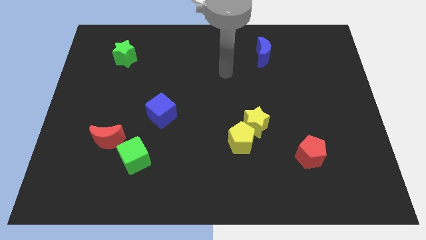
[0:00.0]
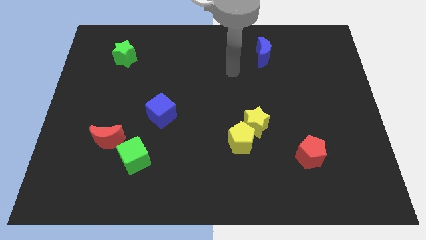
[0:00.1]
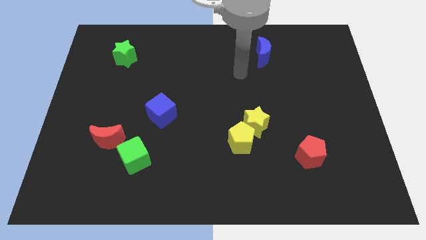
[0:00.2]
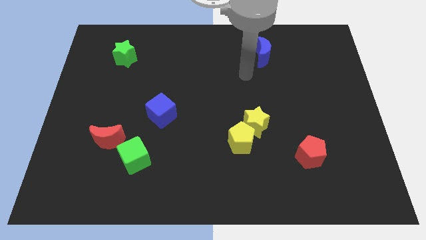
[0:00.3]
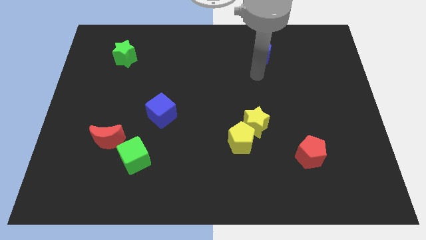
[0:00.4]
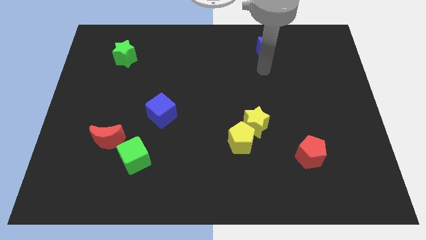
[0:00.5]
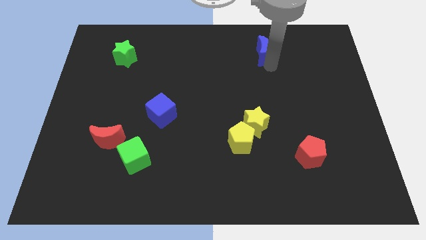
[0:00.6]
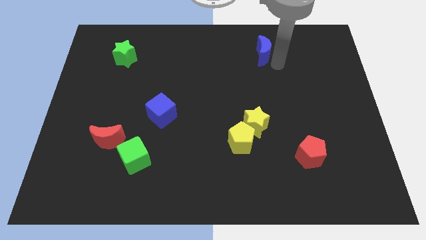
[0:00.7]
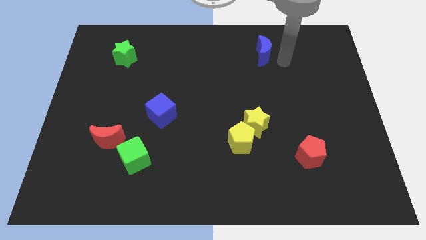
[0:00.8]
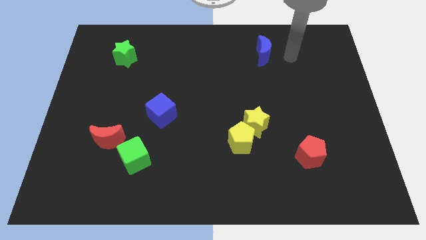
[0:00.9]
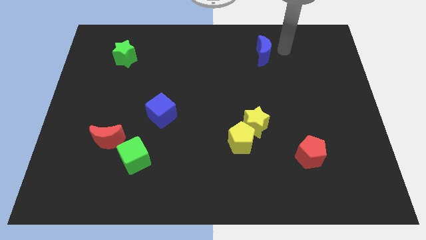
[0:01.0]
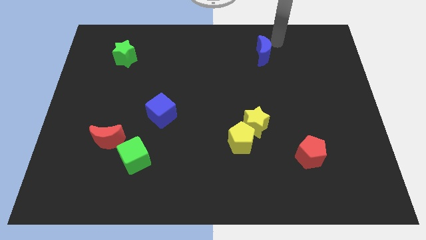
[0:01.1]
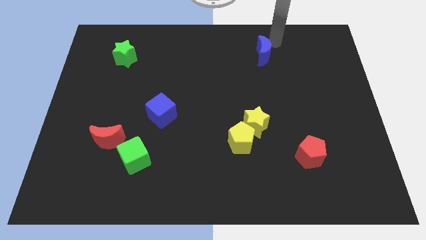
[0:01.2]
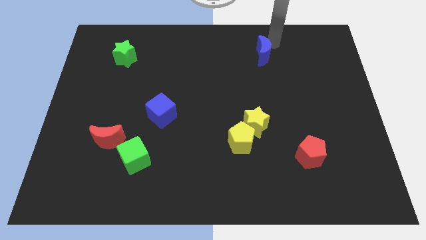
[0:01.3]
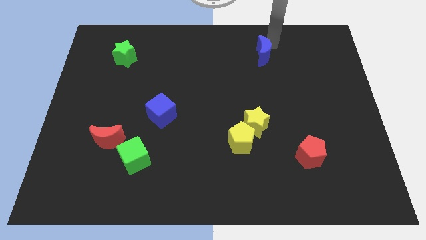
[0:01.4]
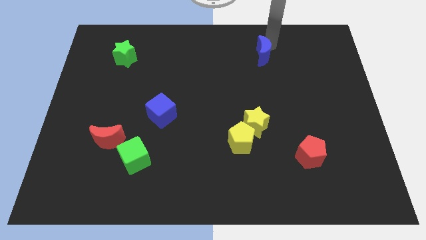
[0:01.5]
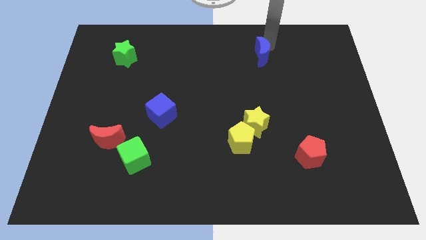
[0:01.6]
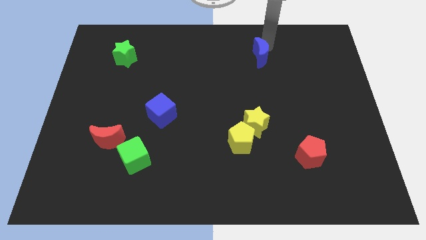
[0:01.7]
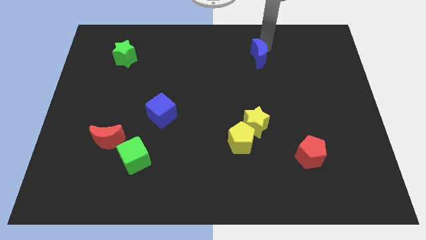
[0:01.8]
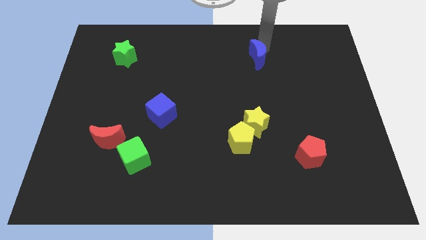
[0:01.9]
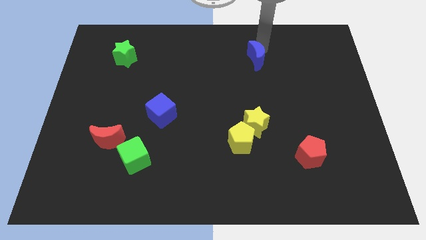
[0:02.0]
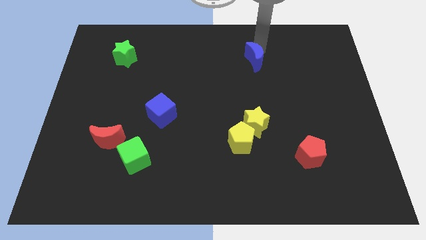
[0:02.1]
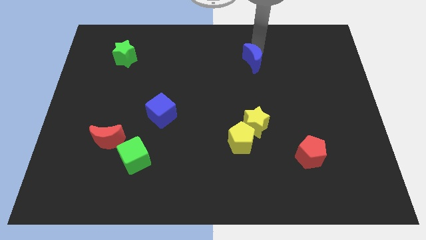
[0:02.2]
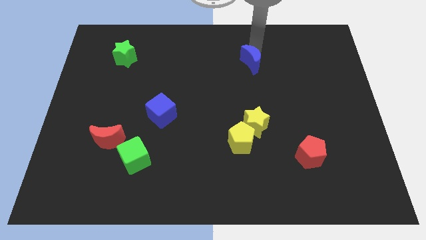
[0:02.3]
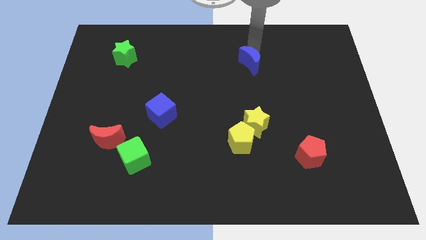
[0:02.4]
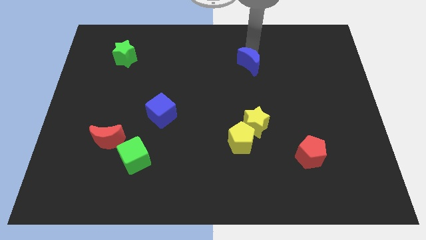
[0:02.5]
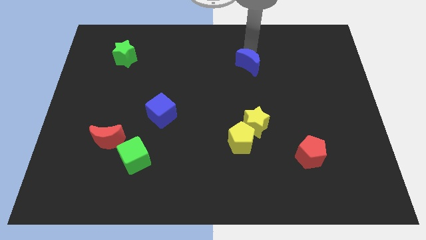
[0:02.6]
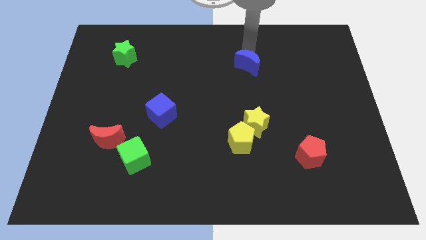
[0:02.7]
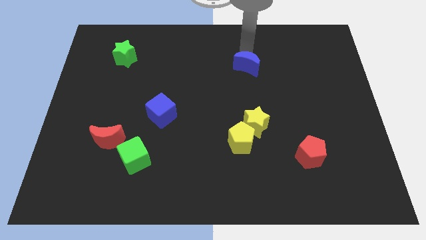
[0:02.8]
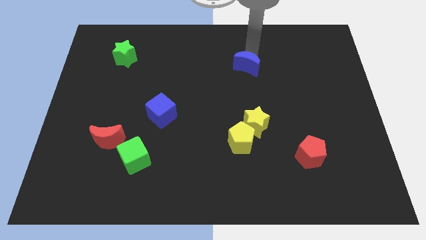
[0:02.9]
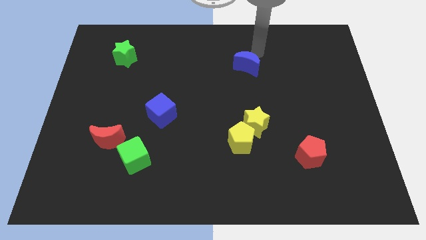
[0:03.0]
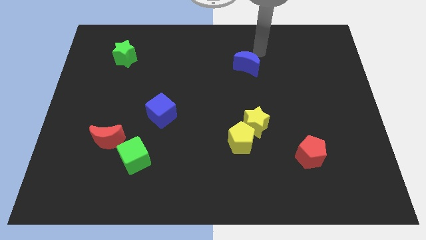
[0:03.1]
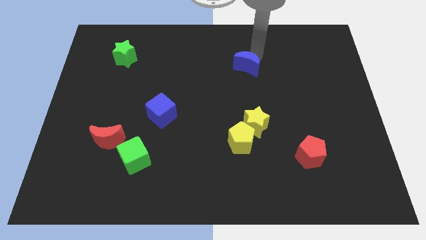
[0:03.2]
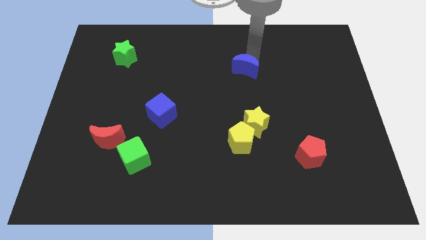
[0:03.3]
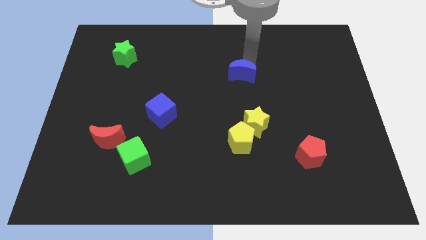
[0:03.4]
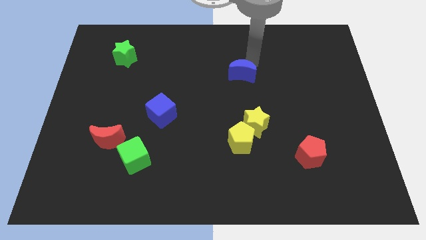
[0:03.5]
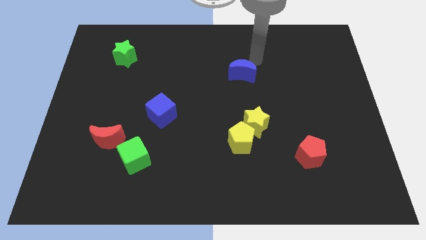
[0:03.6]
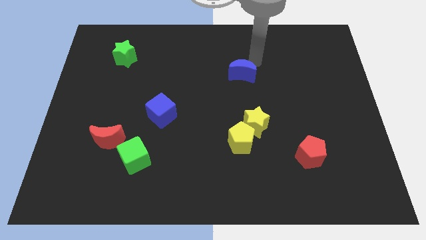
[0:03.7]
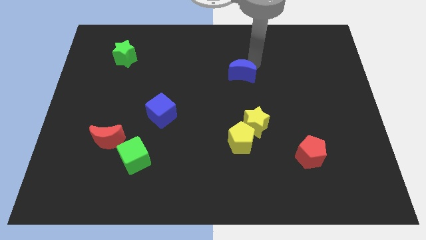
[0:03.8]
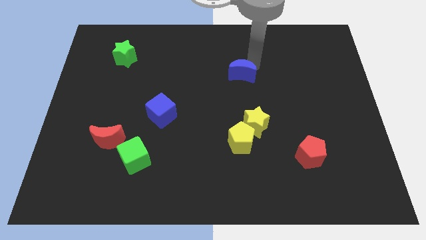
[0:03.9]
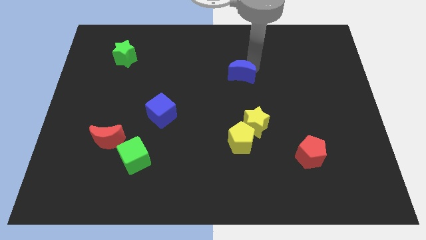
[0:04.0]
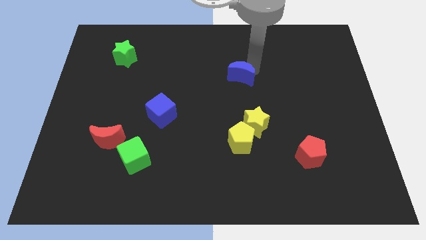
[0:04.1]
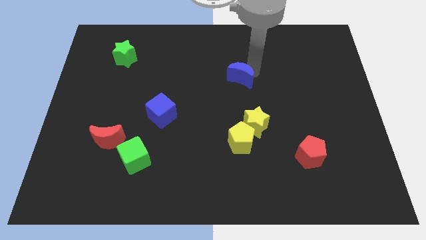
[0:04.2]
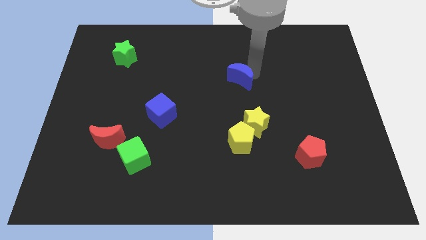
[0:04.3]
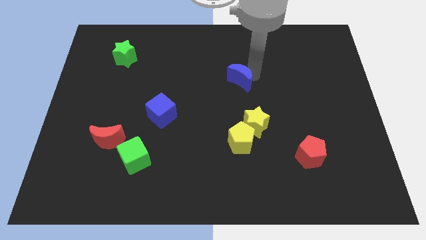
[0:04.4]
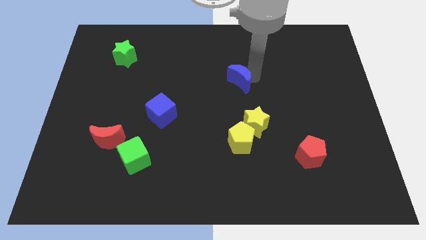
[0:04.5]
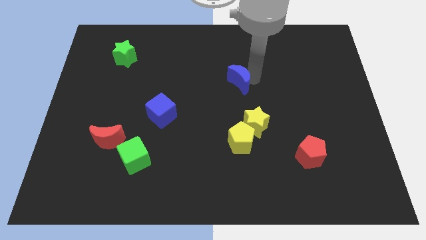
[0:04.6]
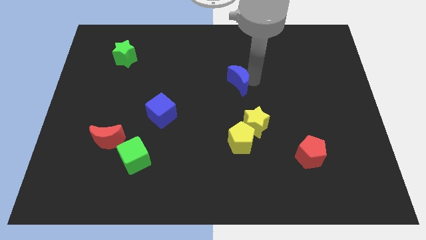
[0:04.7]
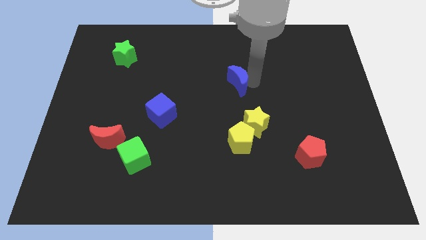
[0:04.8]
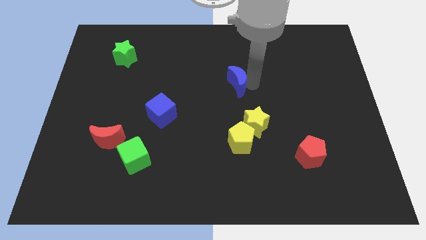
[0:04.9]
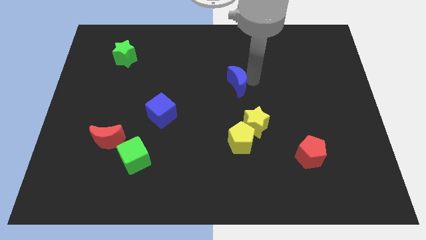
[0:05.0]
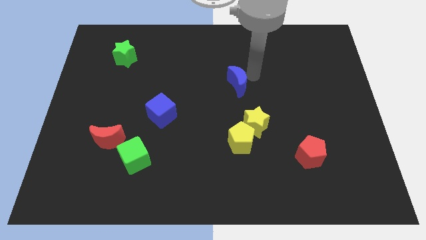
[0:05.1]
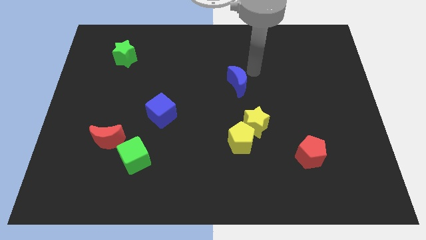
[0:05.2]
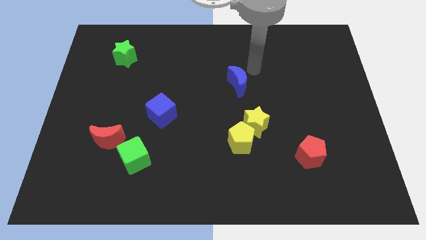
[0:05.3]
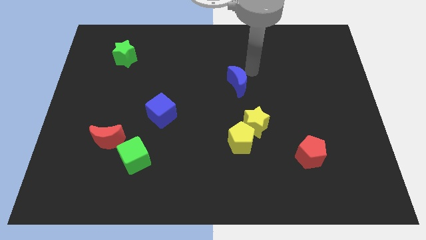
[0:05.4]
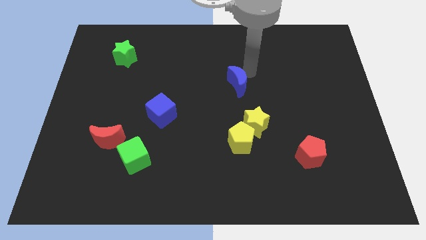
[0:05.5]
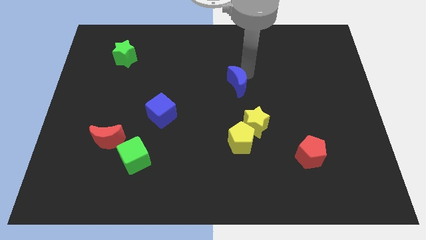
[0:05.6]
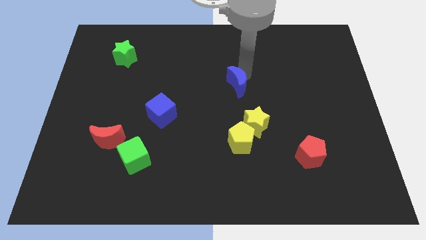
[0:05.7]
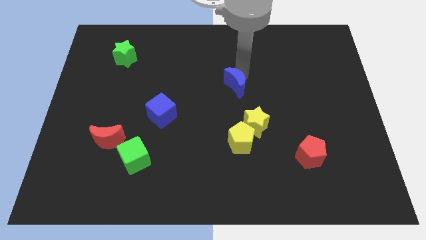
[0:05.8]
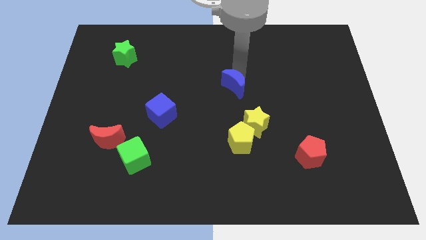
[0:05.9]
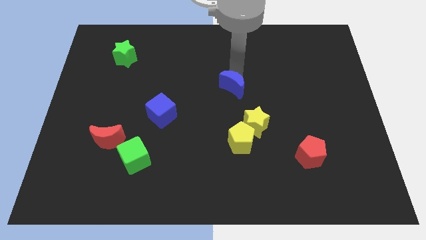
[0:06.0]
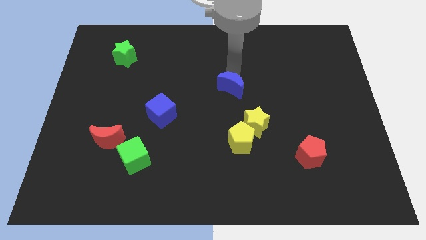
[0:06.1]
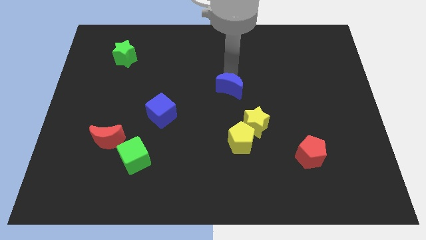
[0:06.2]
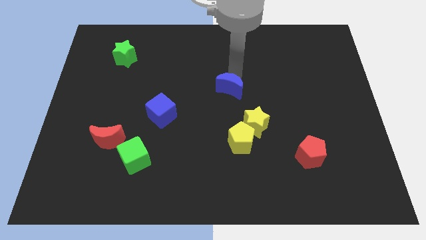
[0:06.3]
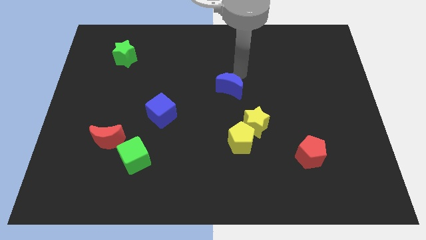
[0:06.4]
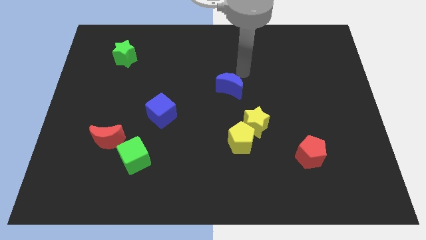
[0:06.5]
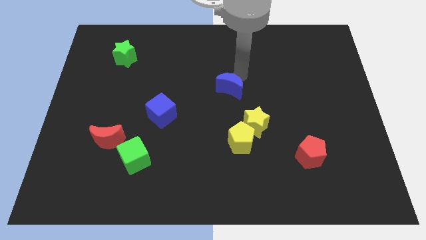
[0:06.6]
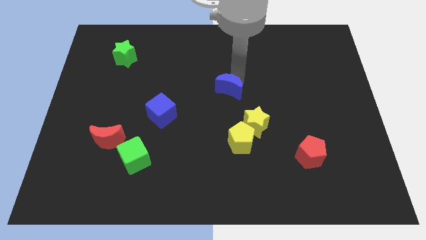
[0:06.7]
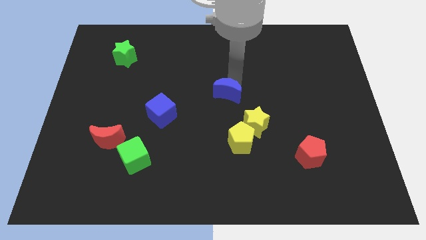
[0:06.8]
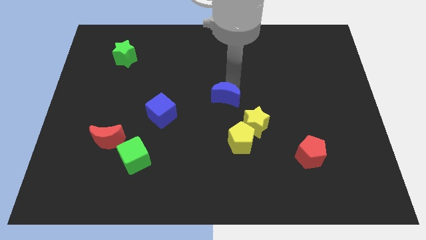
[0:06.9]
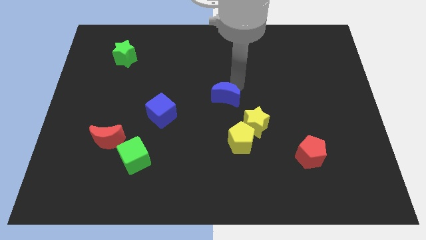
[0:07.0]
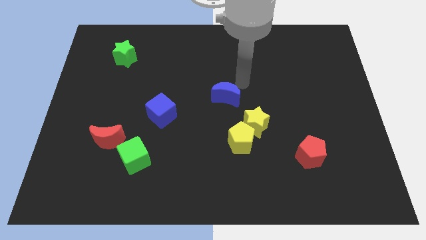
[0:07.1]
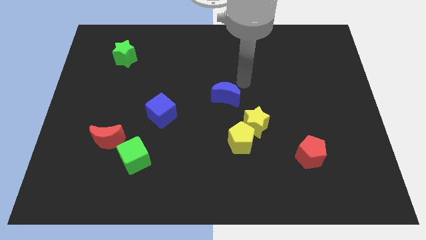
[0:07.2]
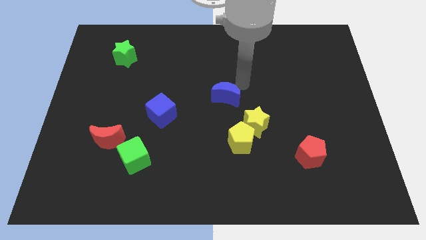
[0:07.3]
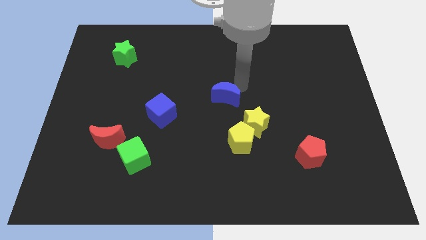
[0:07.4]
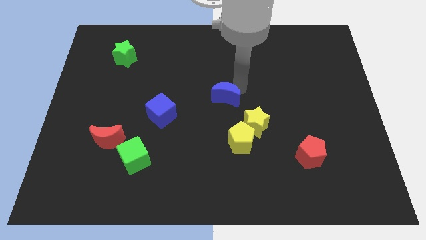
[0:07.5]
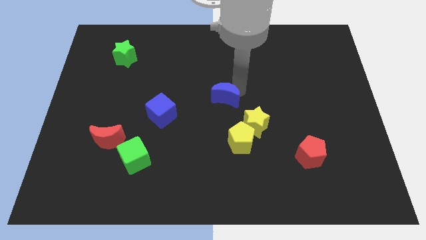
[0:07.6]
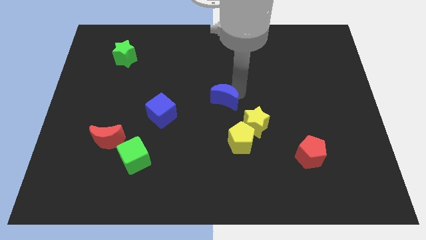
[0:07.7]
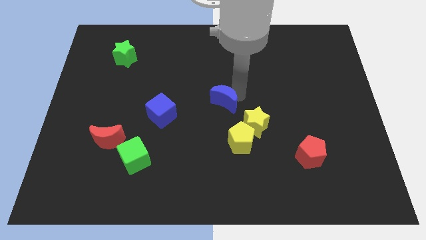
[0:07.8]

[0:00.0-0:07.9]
push the blue moon to the right side of the blue cube

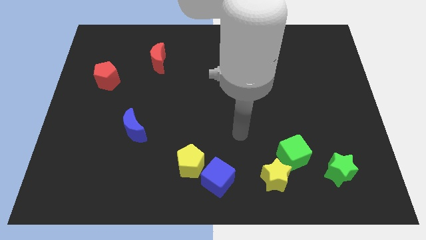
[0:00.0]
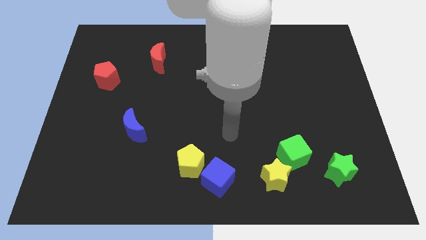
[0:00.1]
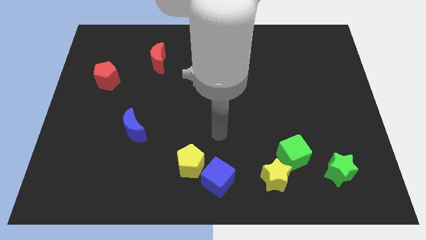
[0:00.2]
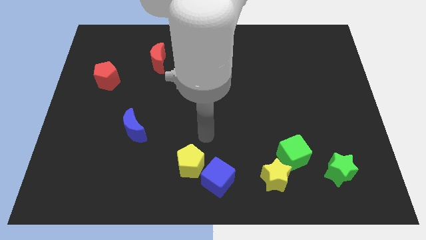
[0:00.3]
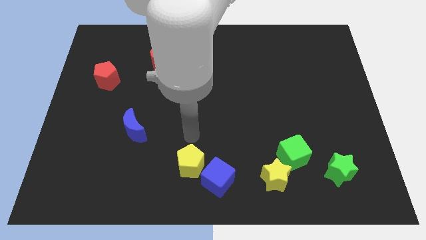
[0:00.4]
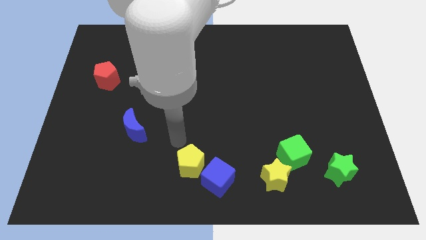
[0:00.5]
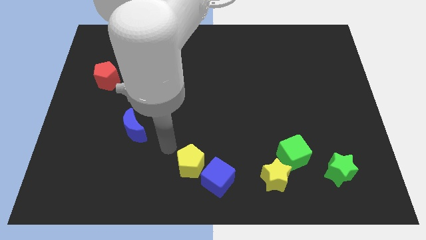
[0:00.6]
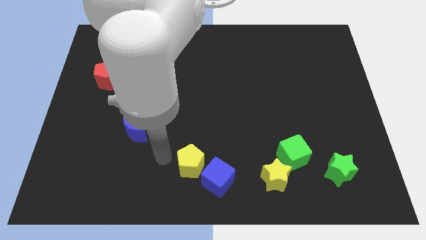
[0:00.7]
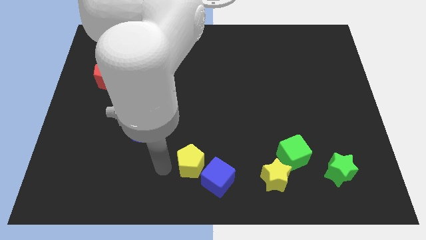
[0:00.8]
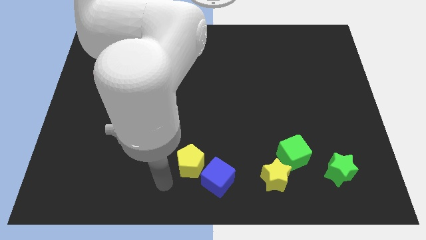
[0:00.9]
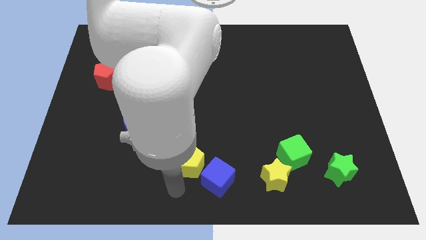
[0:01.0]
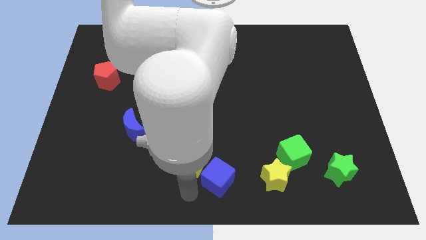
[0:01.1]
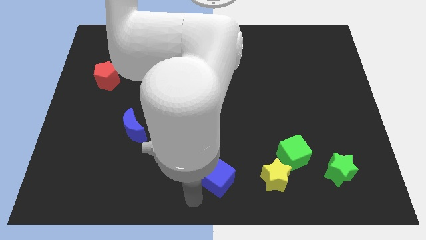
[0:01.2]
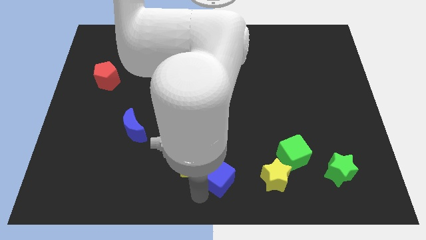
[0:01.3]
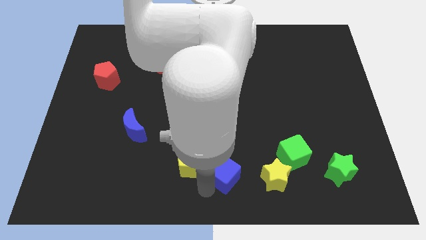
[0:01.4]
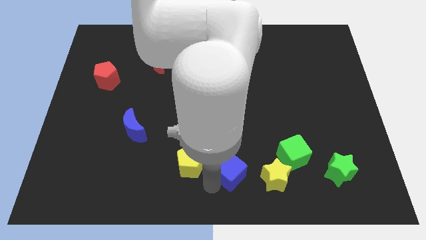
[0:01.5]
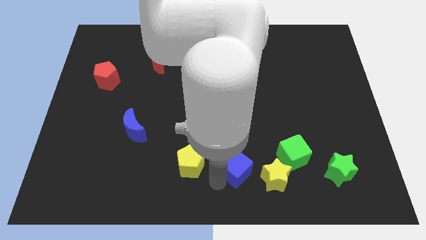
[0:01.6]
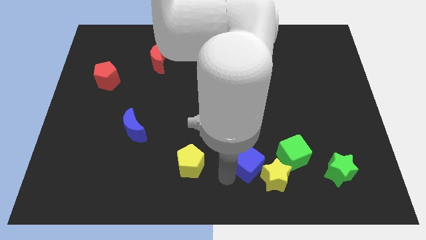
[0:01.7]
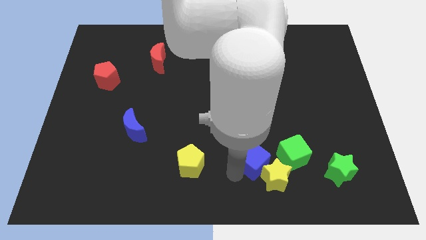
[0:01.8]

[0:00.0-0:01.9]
move the blue cube above the yellow star
